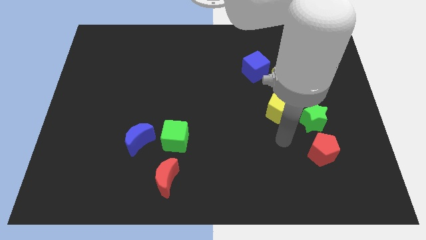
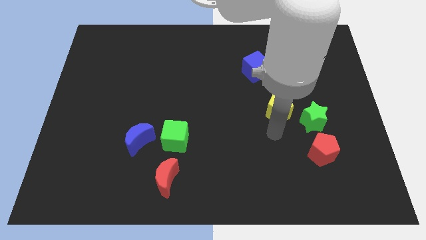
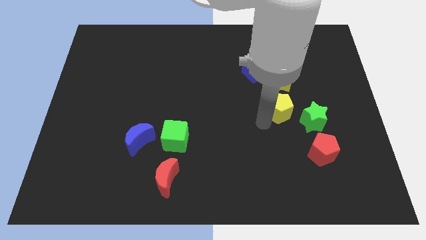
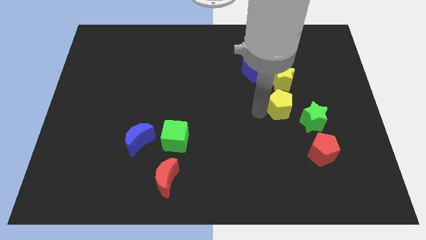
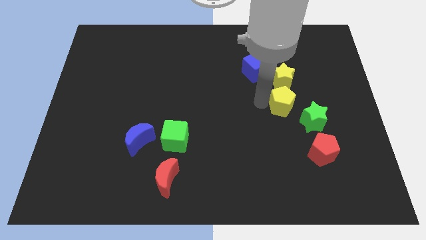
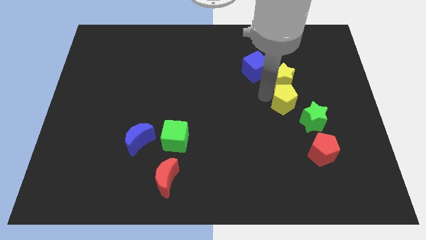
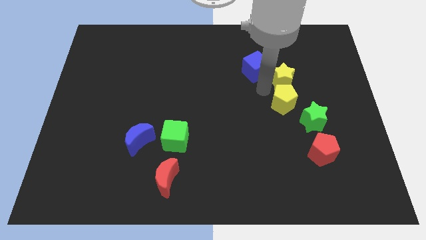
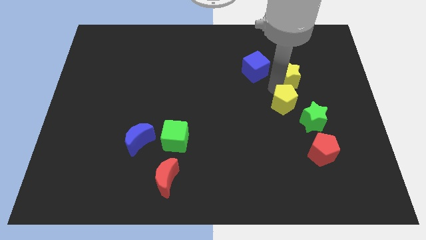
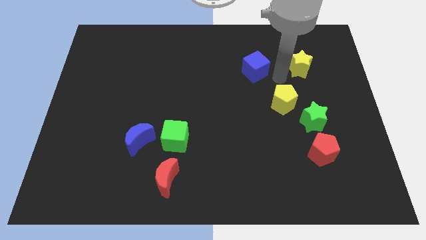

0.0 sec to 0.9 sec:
move the blue cube away from the yellow star

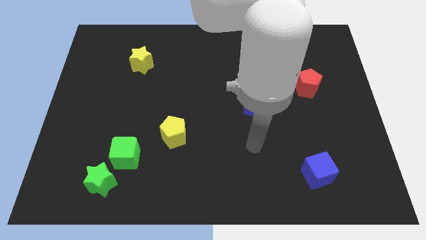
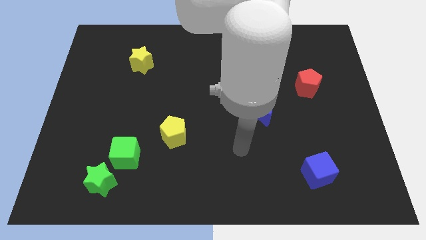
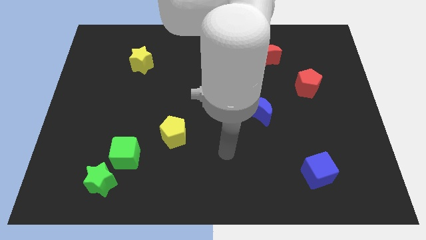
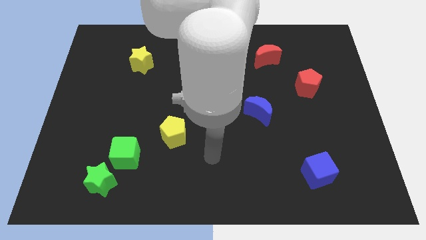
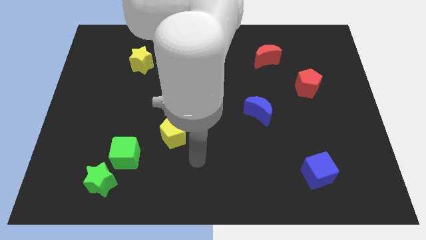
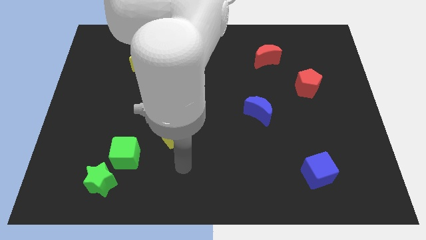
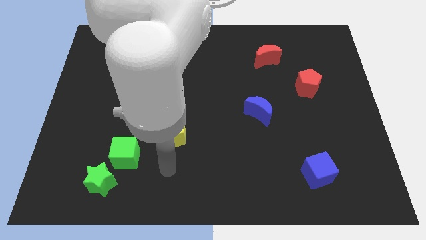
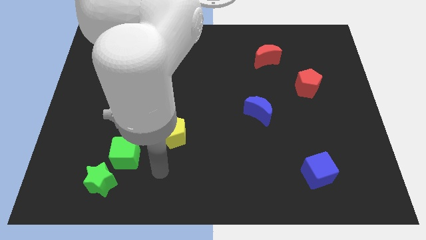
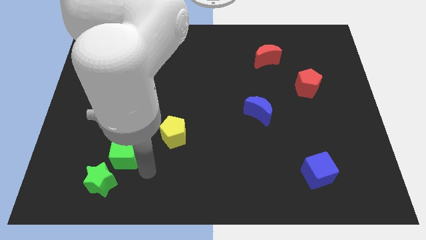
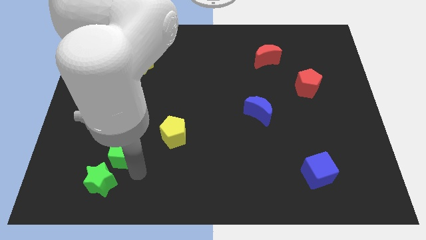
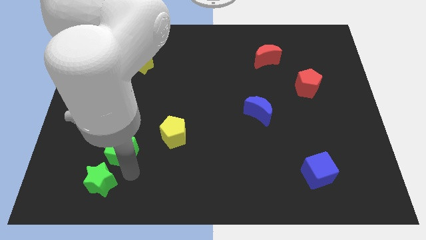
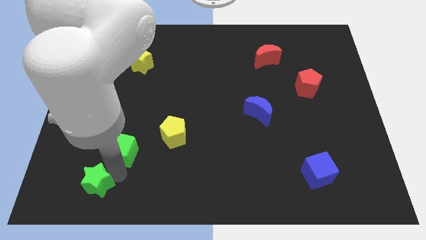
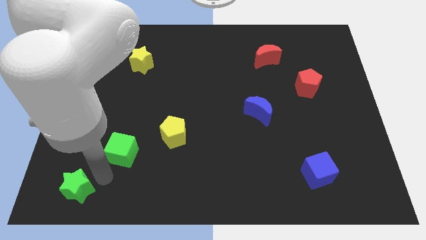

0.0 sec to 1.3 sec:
pull the green cube apart from the green star

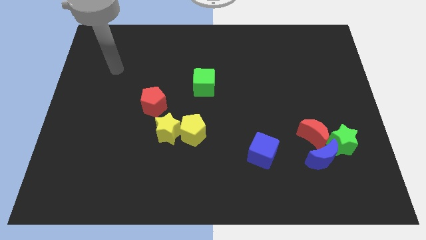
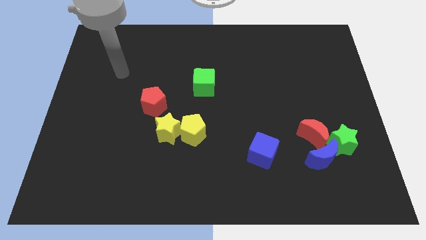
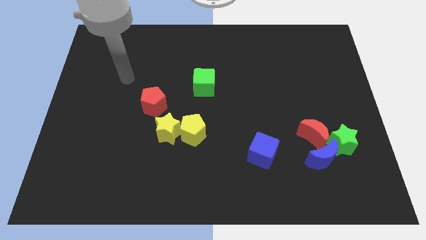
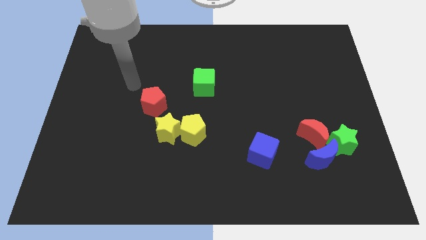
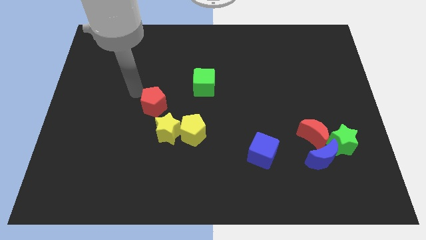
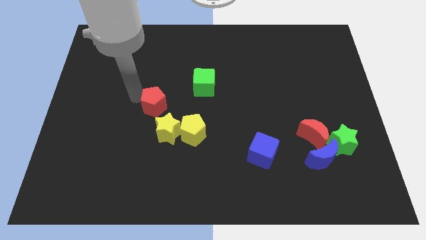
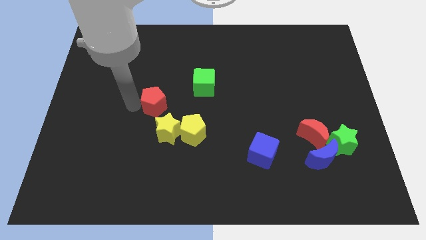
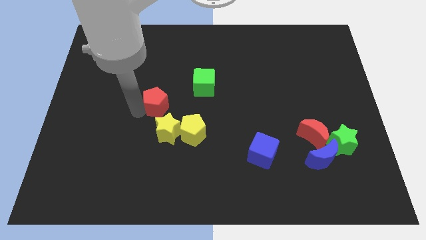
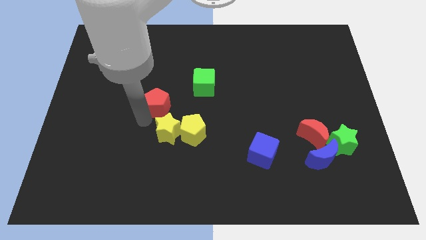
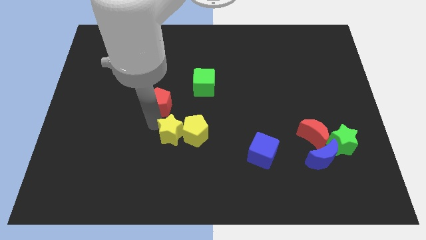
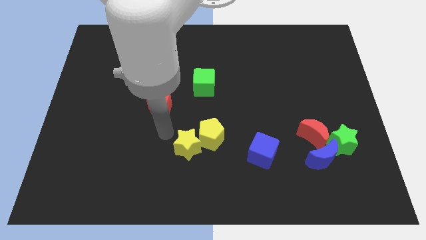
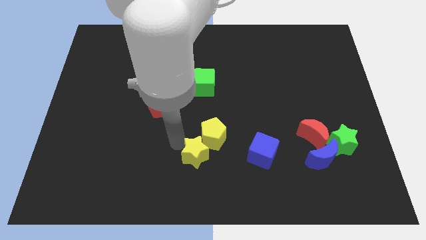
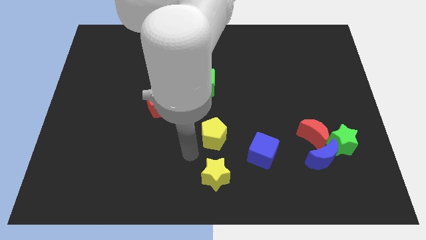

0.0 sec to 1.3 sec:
pull the yellow pentagon apart from the yellow star

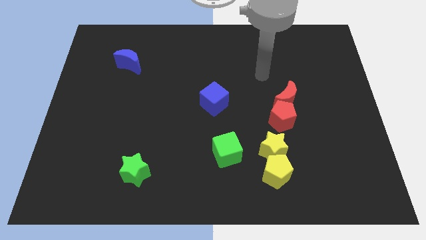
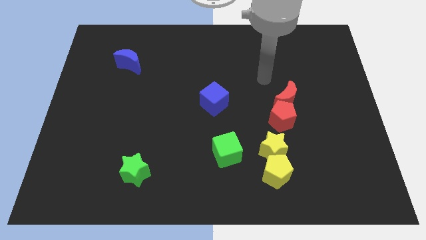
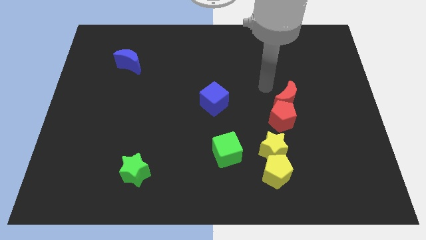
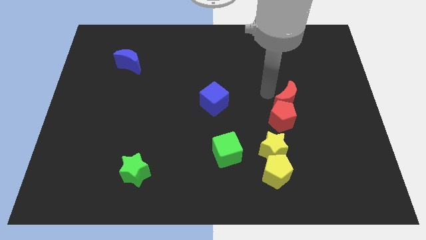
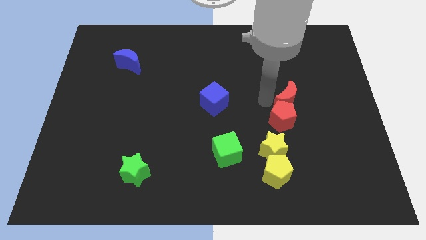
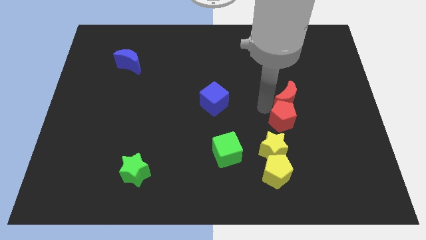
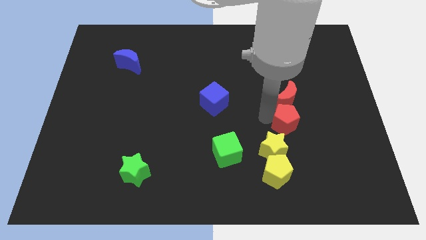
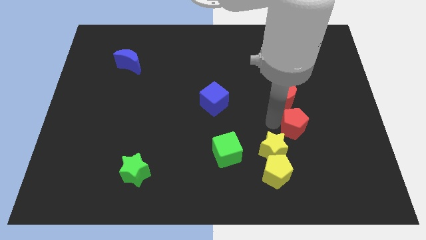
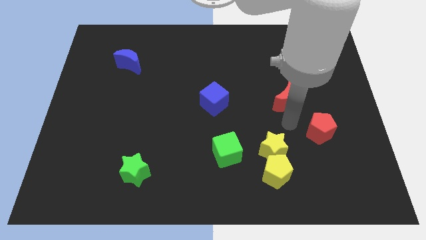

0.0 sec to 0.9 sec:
separate the red moon from the red pentagon

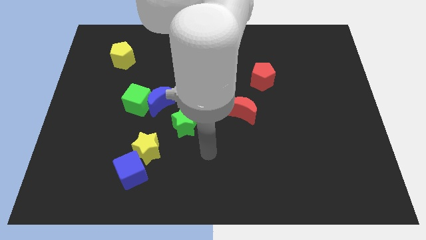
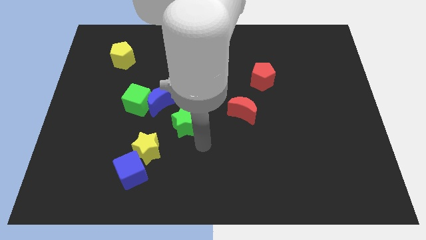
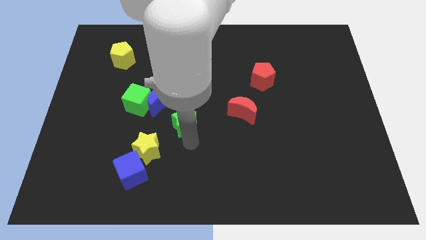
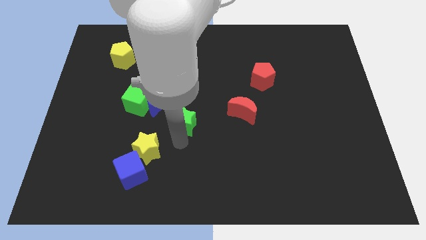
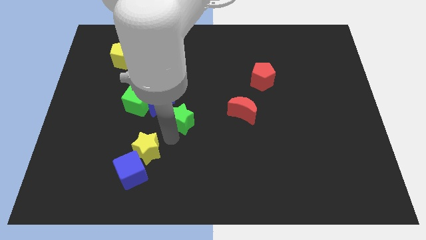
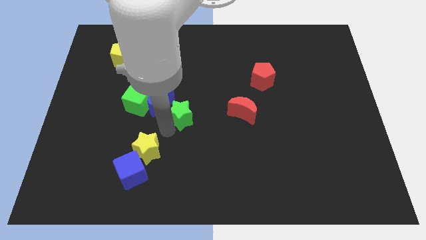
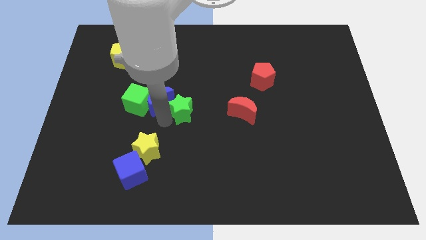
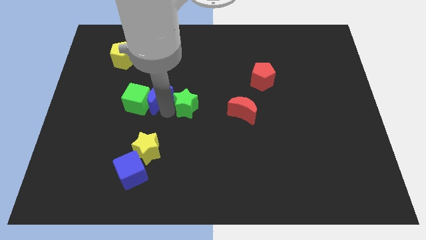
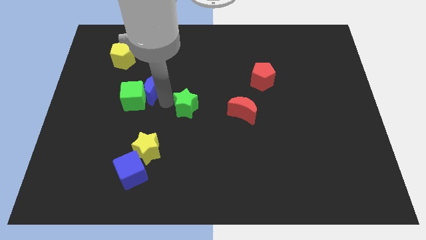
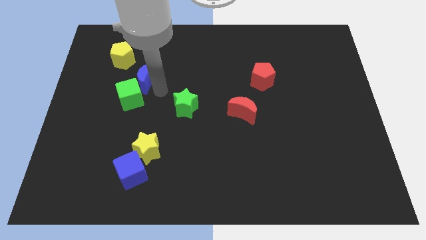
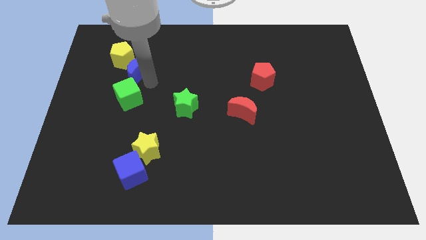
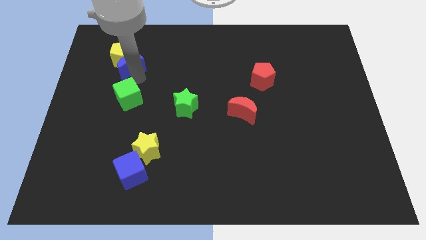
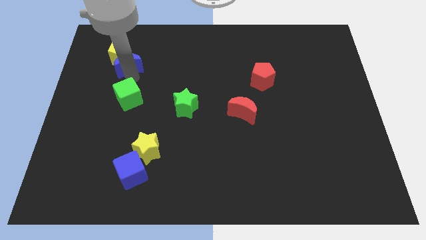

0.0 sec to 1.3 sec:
pull the green cube apart from the blue moon

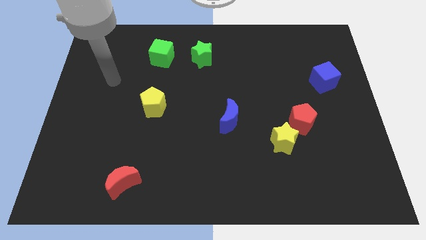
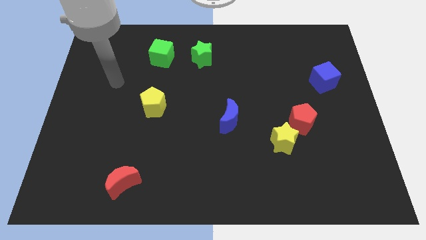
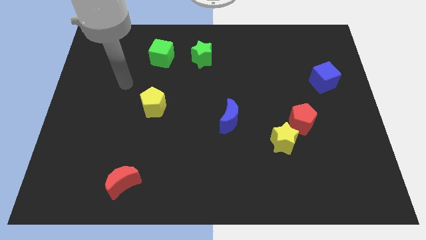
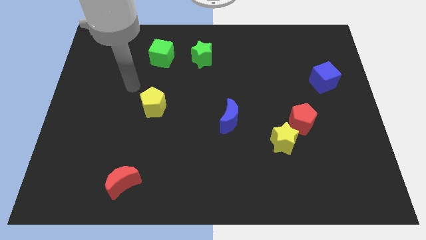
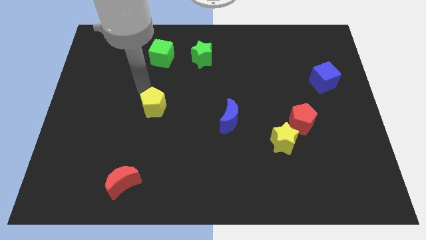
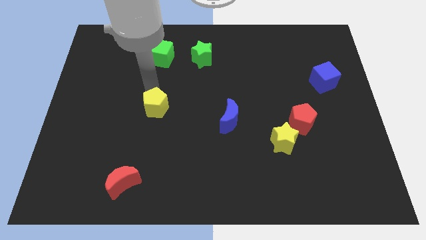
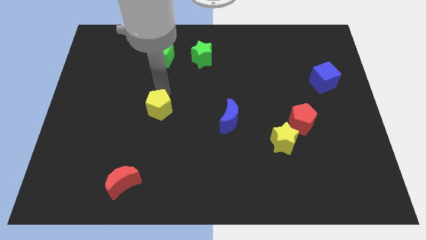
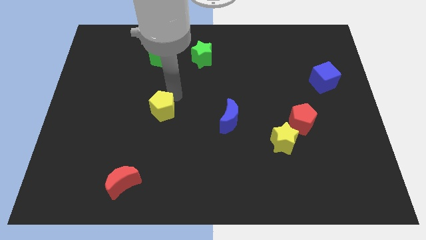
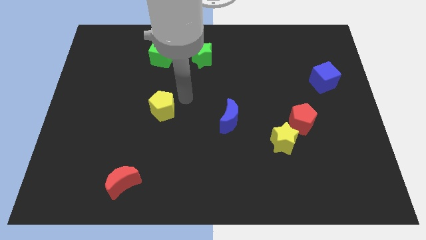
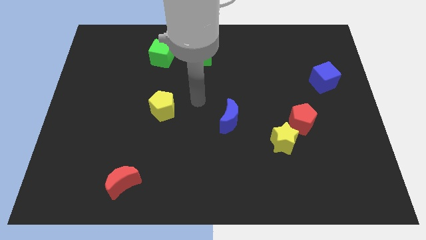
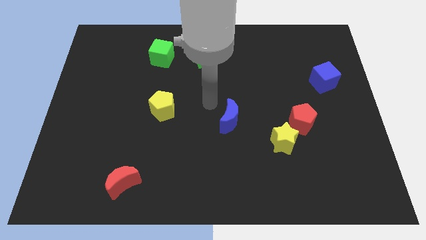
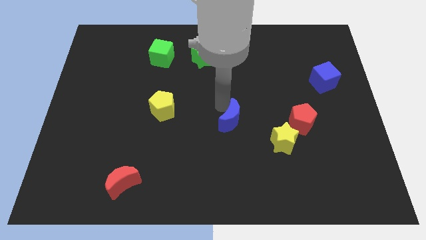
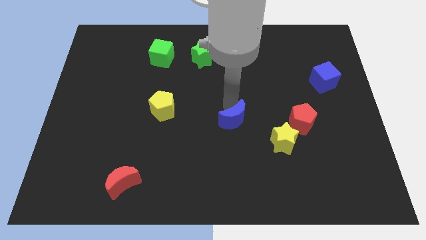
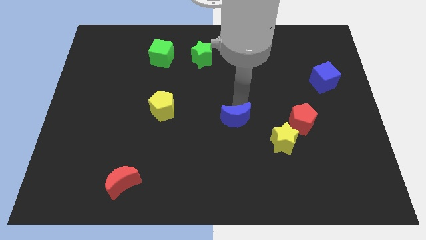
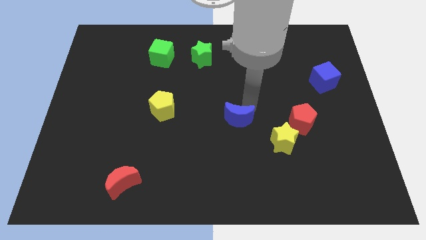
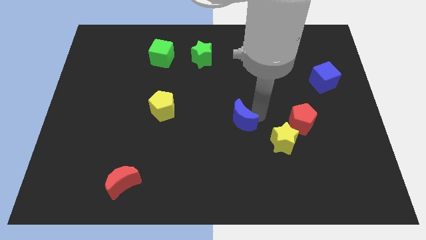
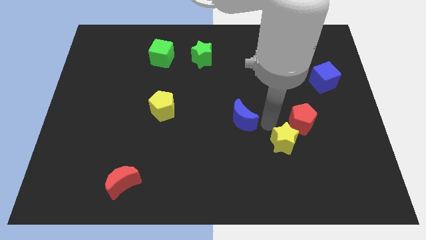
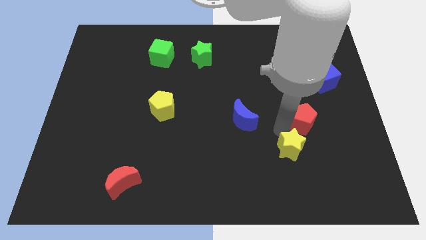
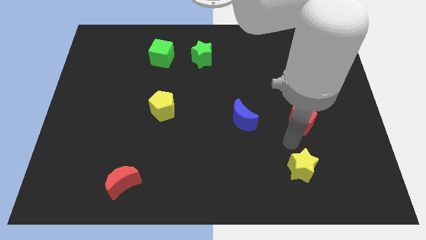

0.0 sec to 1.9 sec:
separate the red pentagon from the yellow star

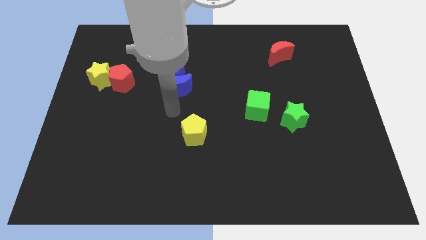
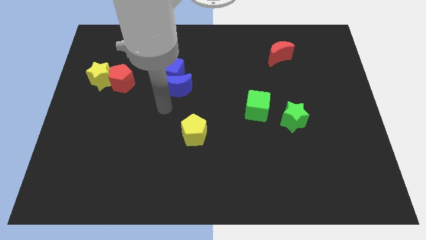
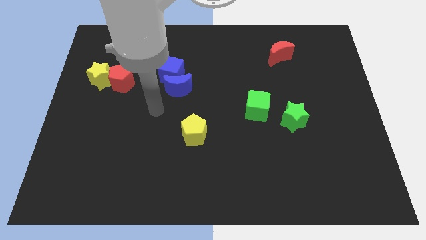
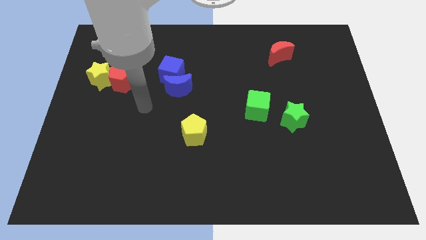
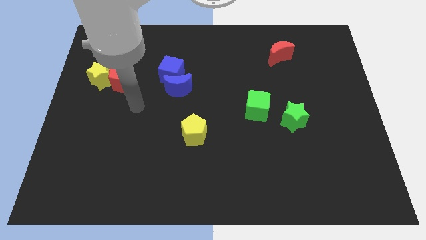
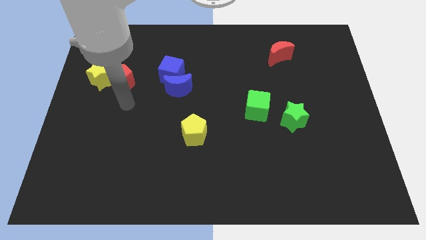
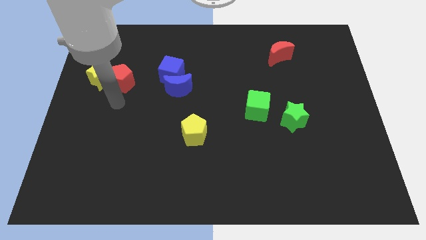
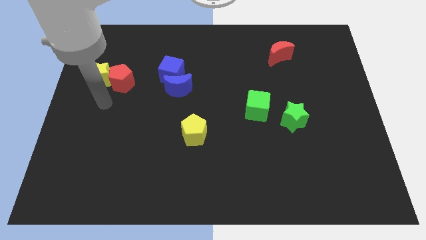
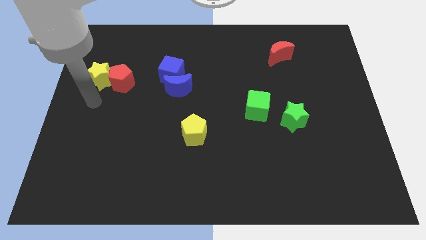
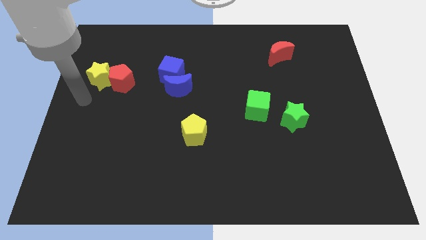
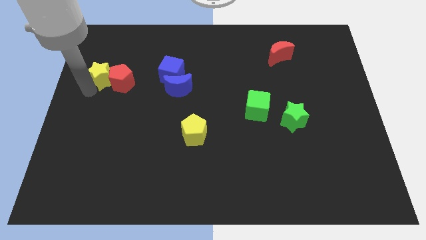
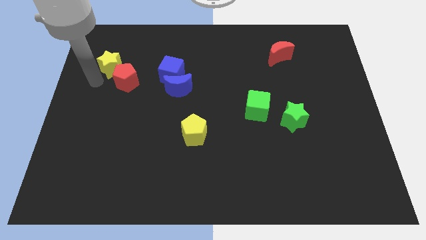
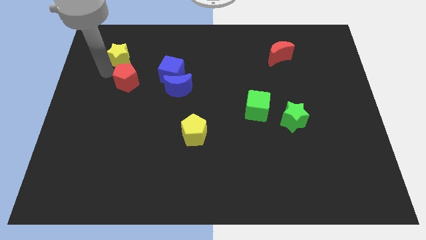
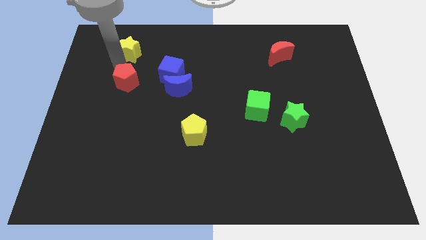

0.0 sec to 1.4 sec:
move the red pentagon away from the yellow star

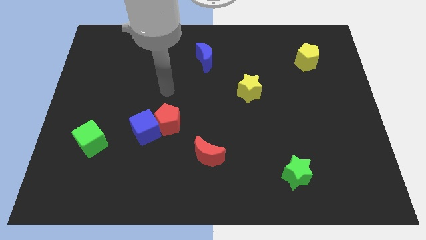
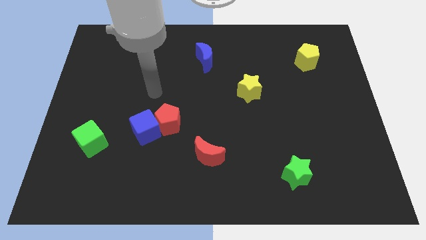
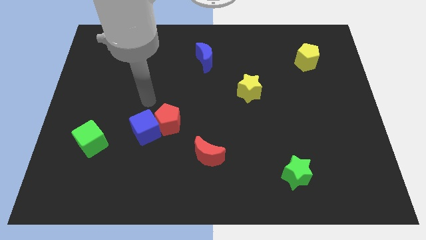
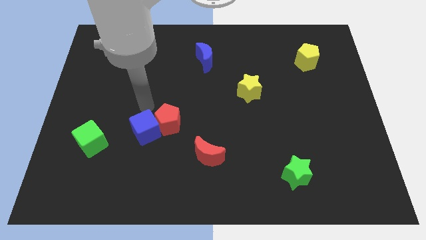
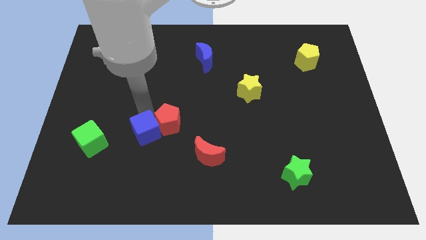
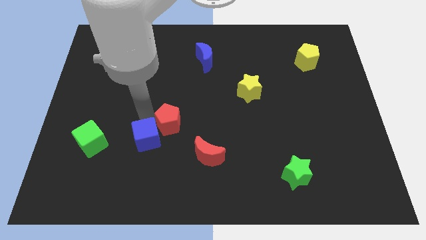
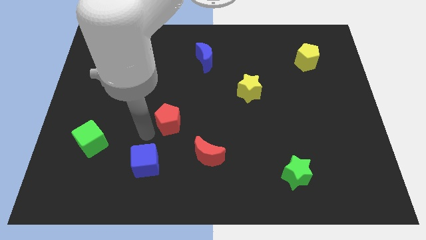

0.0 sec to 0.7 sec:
pull the red pentagon apart from the blue cube
